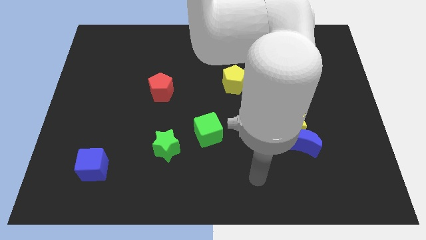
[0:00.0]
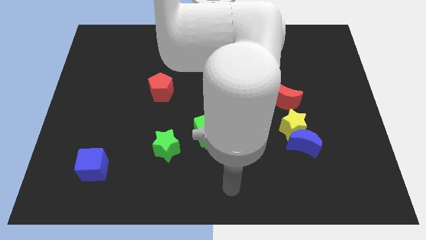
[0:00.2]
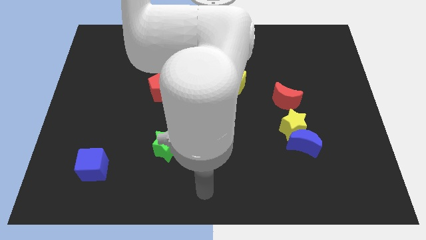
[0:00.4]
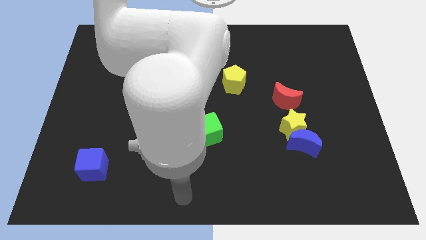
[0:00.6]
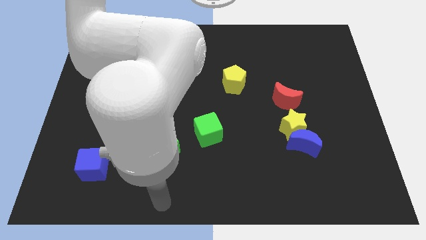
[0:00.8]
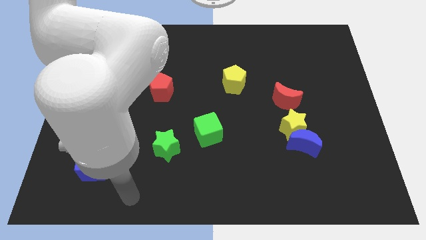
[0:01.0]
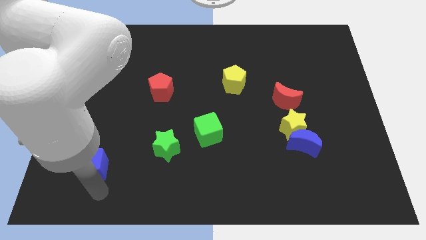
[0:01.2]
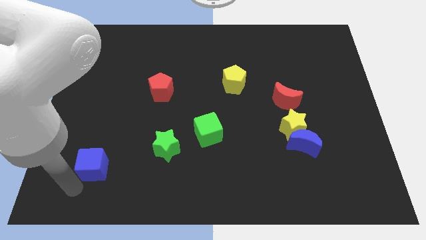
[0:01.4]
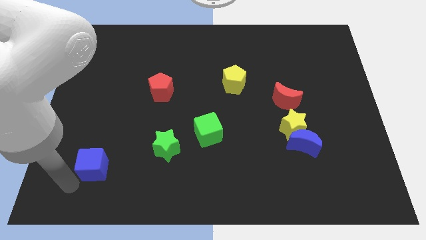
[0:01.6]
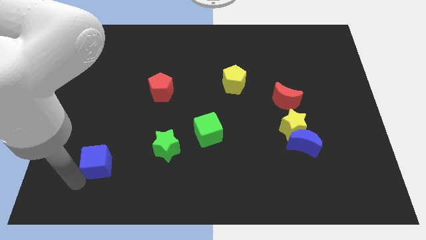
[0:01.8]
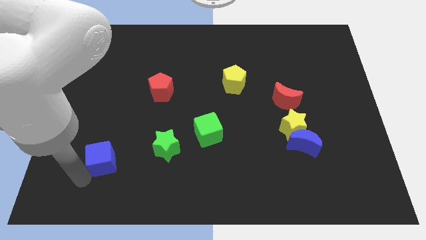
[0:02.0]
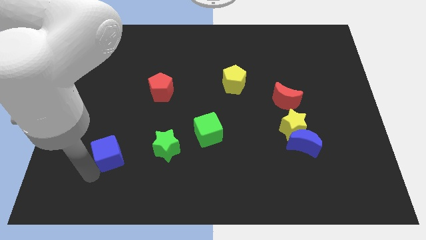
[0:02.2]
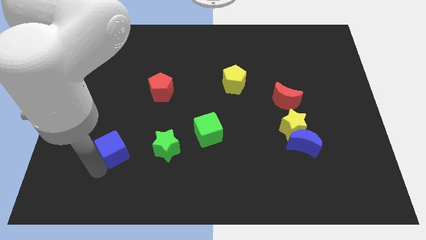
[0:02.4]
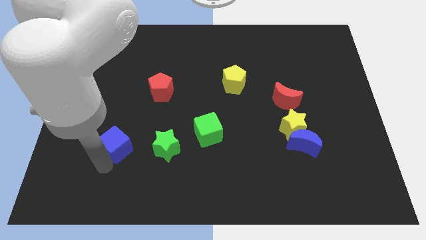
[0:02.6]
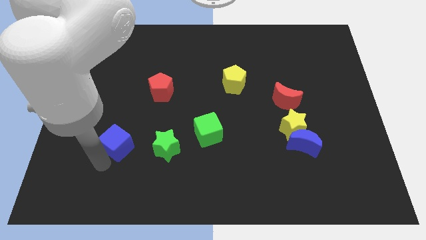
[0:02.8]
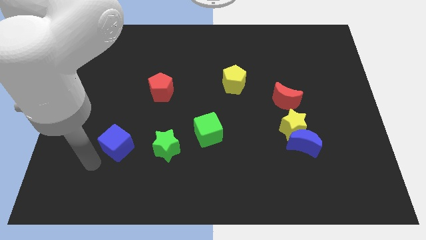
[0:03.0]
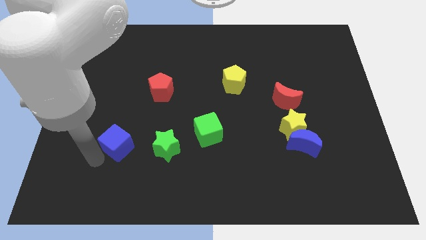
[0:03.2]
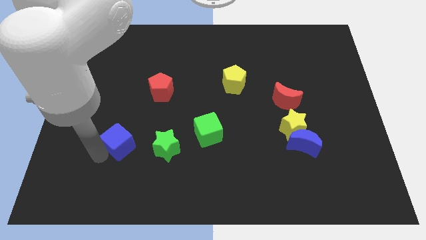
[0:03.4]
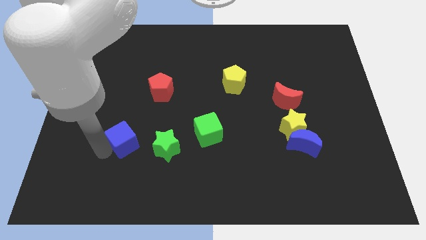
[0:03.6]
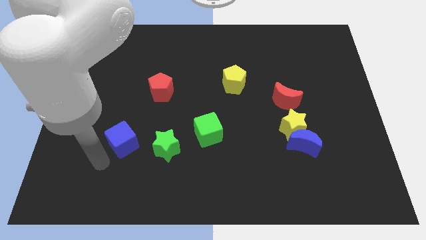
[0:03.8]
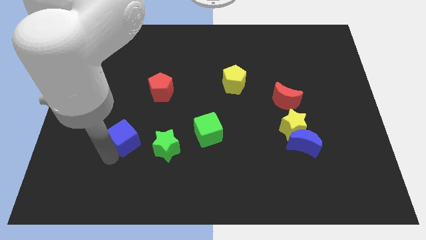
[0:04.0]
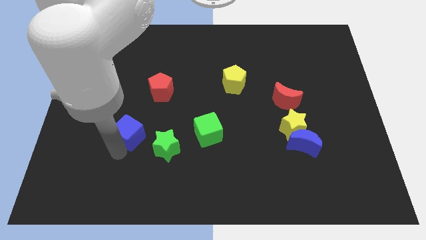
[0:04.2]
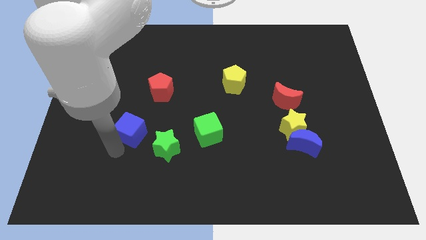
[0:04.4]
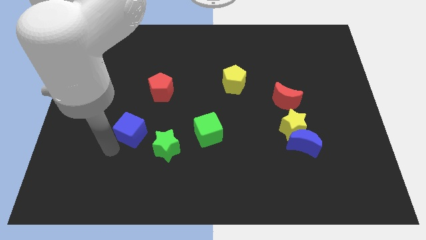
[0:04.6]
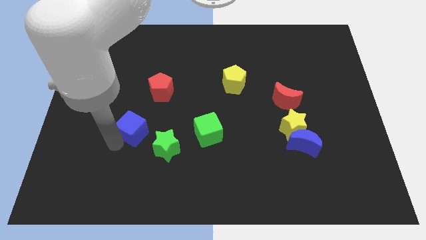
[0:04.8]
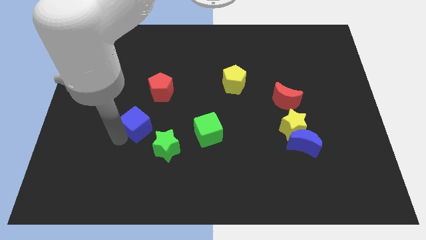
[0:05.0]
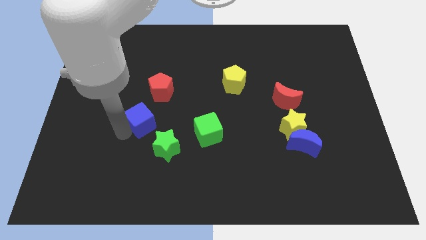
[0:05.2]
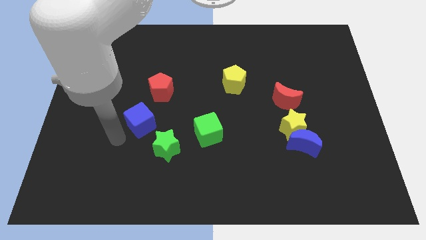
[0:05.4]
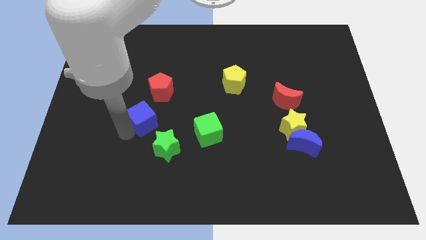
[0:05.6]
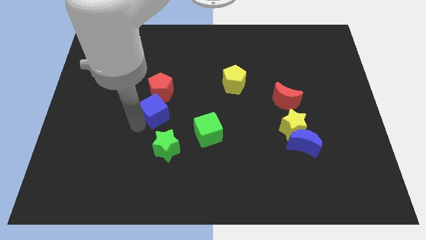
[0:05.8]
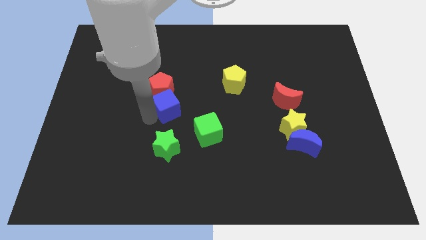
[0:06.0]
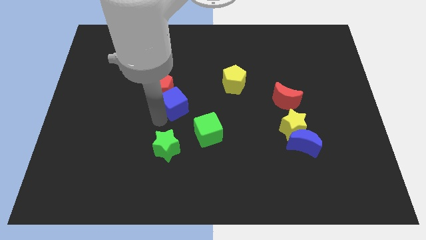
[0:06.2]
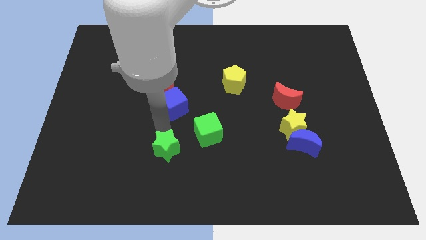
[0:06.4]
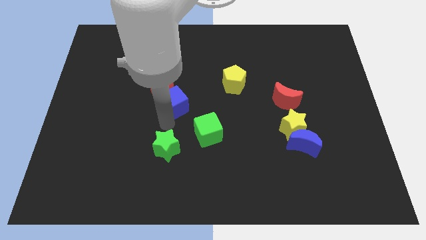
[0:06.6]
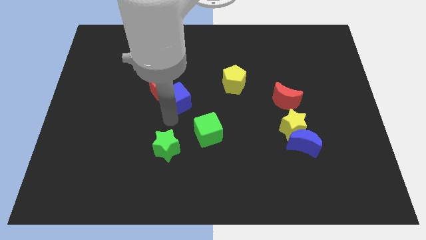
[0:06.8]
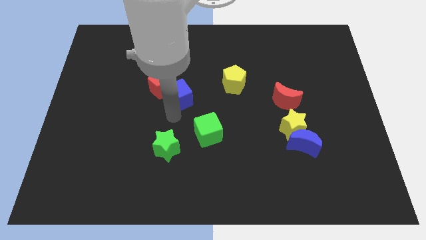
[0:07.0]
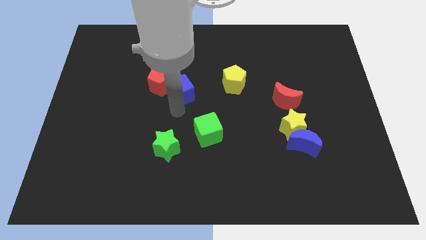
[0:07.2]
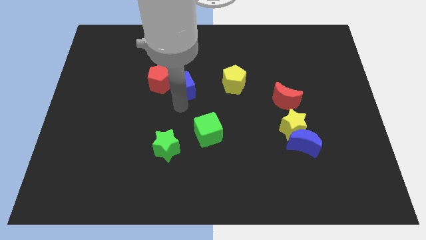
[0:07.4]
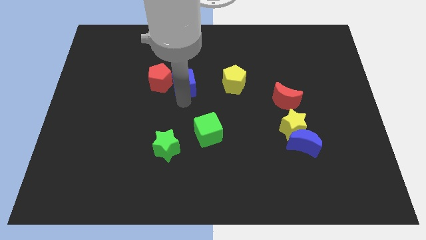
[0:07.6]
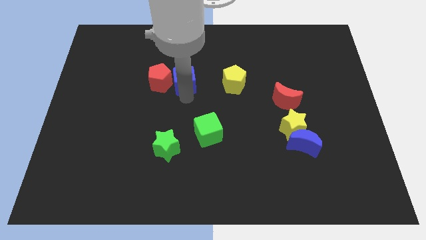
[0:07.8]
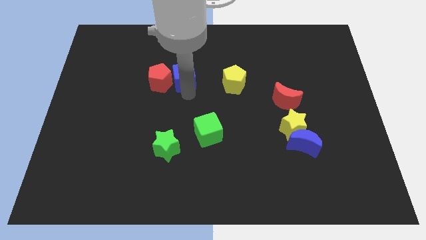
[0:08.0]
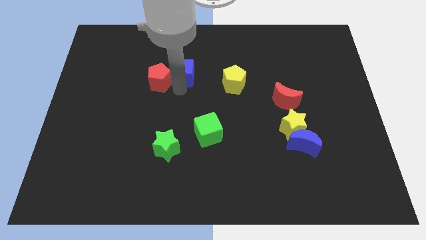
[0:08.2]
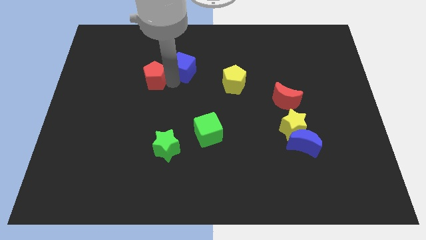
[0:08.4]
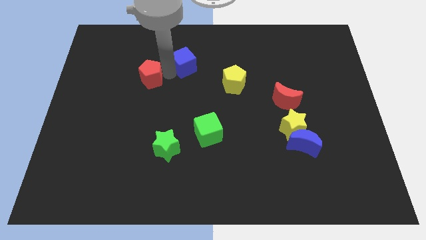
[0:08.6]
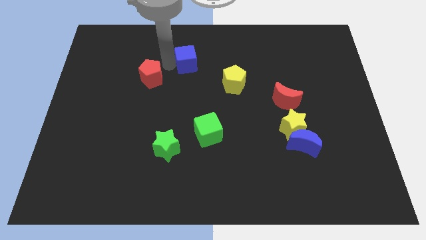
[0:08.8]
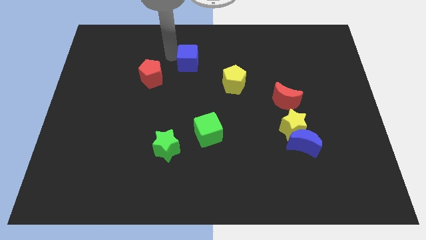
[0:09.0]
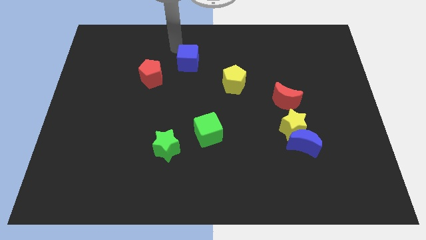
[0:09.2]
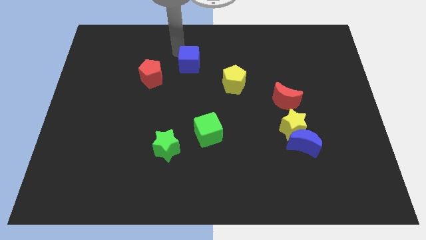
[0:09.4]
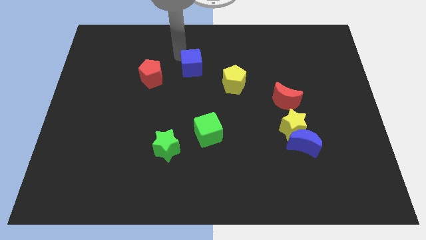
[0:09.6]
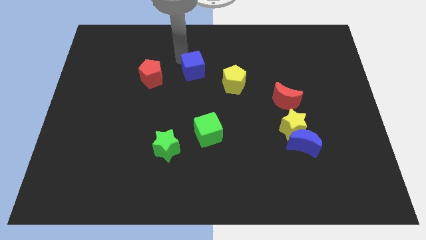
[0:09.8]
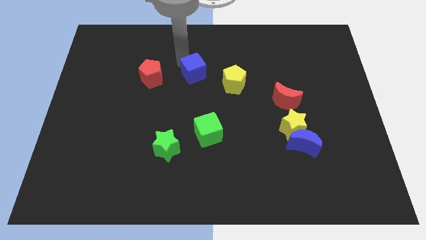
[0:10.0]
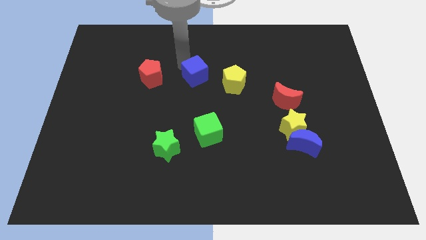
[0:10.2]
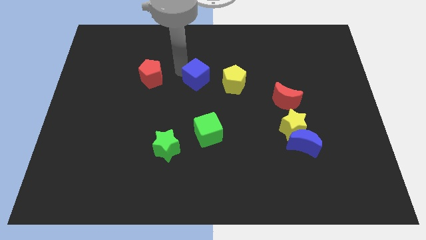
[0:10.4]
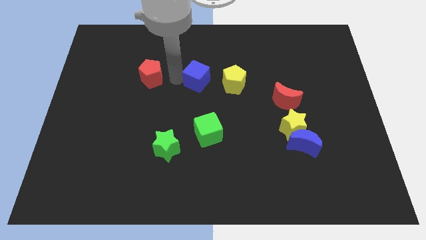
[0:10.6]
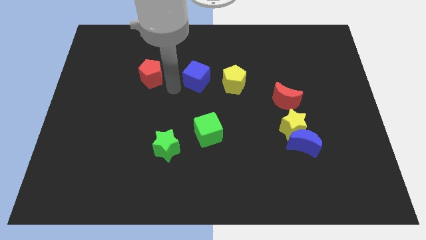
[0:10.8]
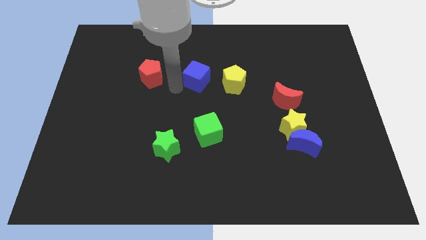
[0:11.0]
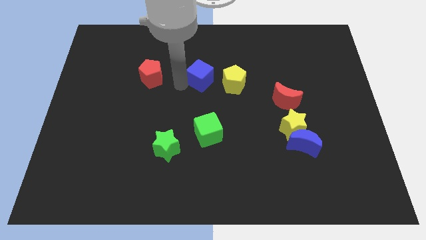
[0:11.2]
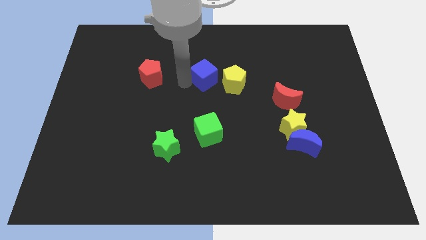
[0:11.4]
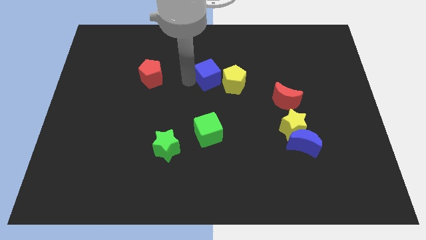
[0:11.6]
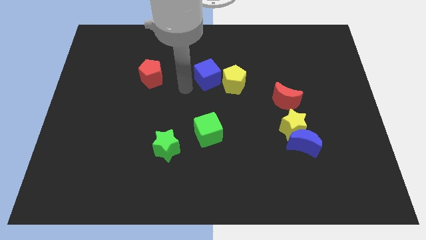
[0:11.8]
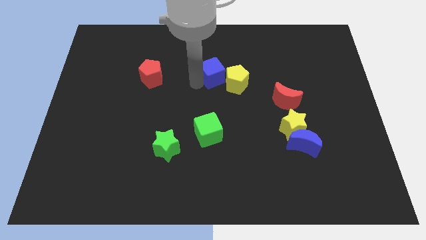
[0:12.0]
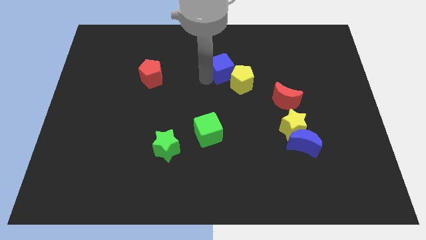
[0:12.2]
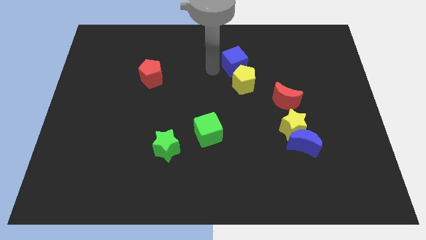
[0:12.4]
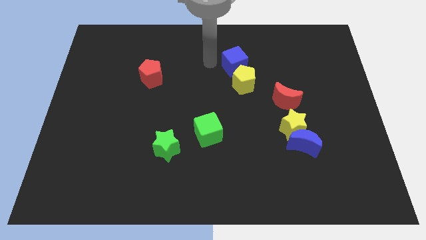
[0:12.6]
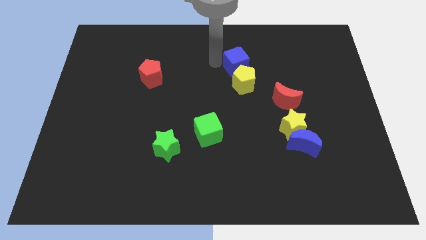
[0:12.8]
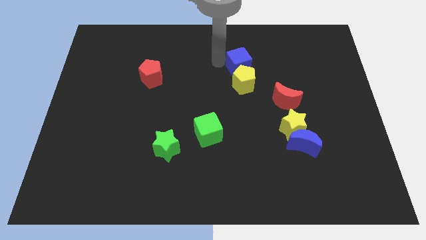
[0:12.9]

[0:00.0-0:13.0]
put the blue cube to the top right of the yellow pentagon

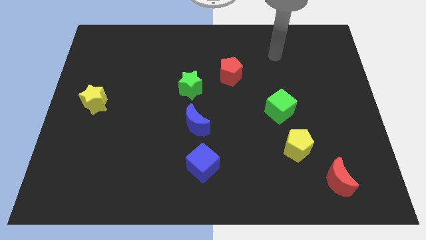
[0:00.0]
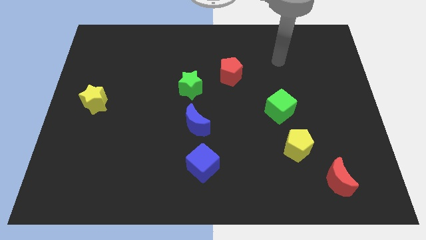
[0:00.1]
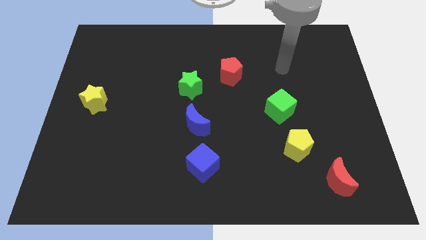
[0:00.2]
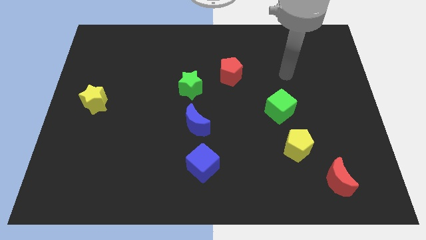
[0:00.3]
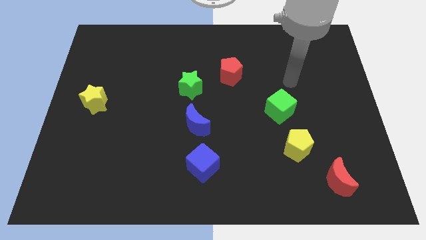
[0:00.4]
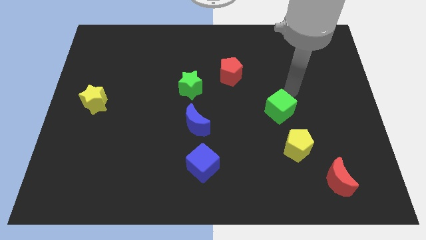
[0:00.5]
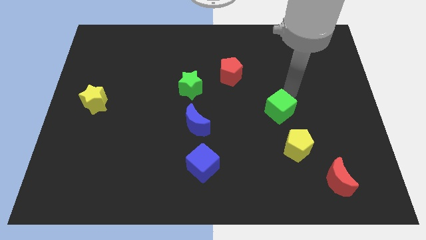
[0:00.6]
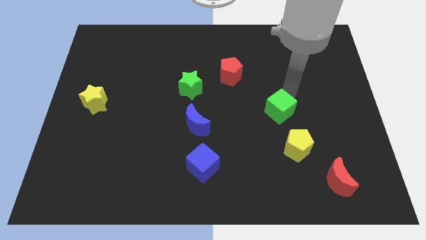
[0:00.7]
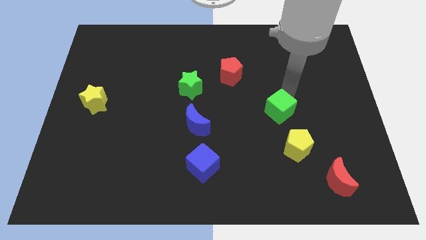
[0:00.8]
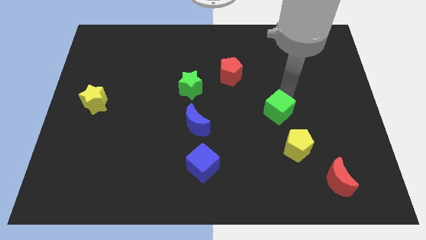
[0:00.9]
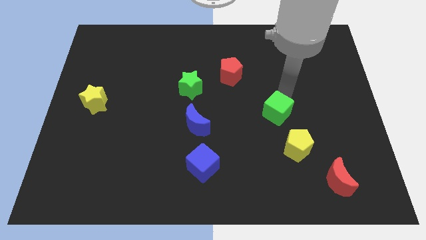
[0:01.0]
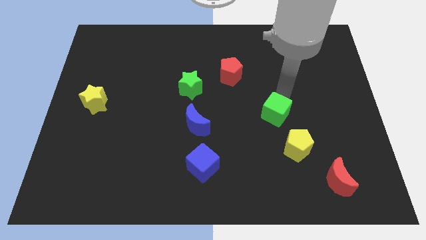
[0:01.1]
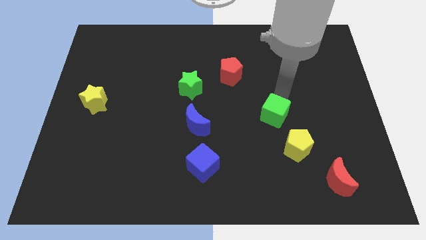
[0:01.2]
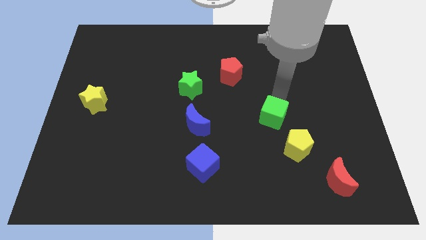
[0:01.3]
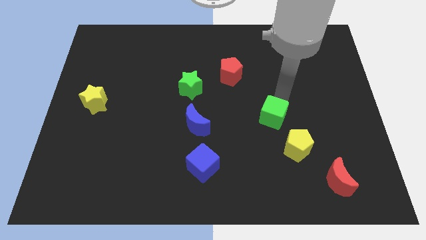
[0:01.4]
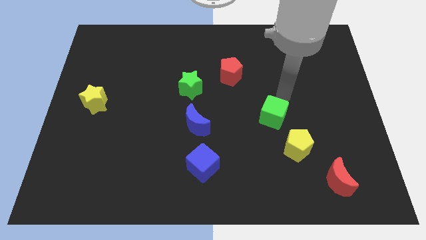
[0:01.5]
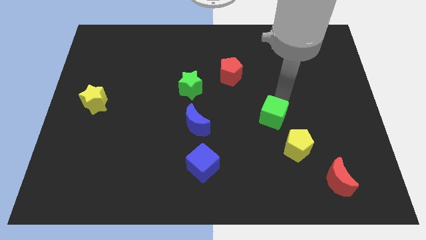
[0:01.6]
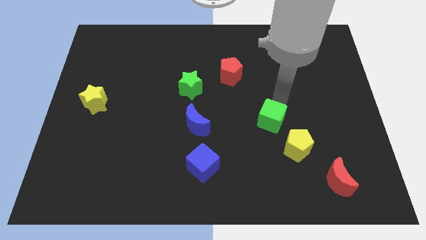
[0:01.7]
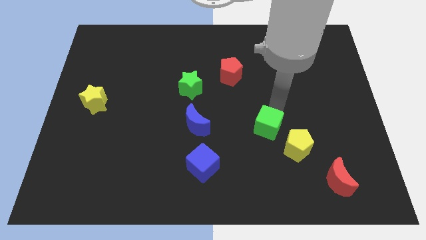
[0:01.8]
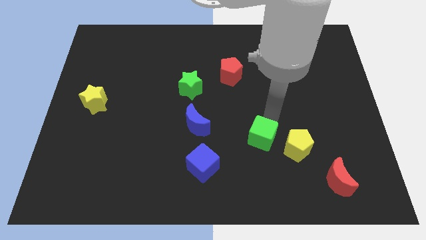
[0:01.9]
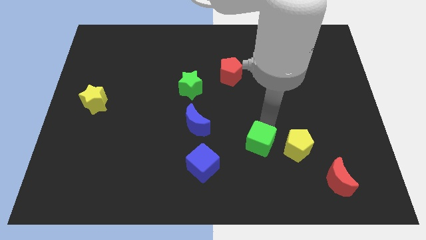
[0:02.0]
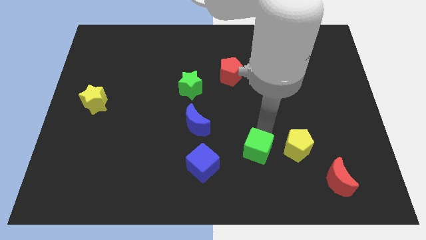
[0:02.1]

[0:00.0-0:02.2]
move the green cube to the right of the blue cube
